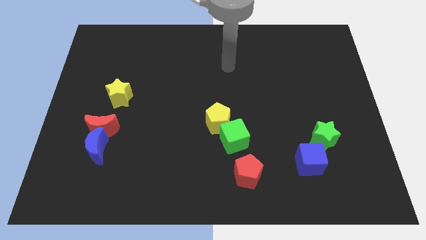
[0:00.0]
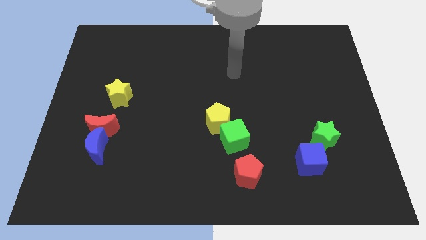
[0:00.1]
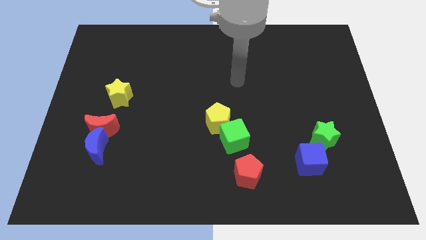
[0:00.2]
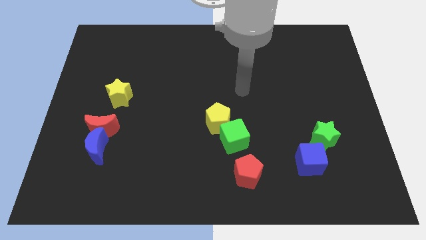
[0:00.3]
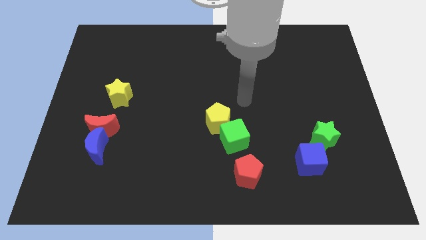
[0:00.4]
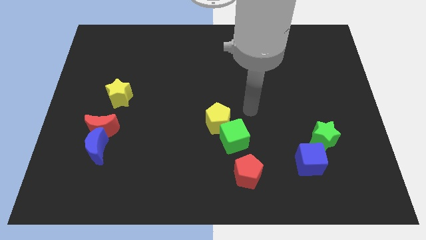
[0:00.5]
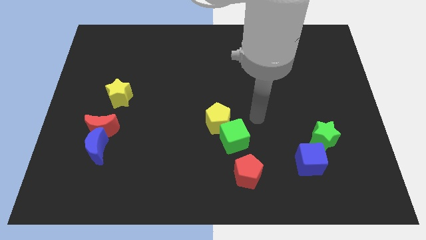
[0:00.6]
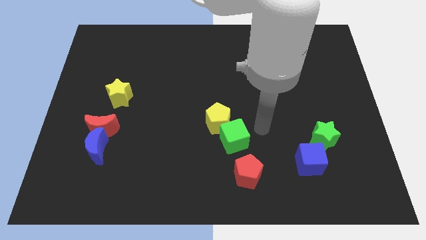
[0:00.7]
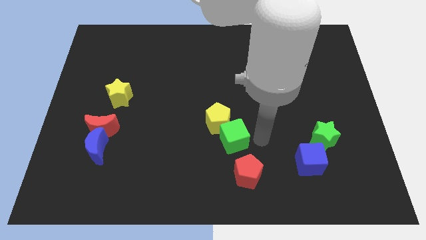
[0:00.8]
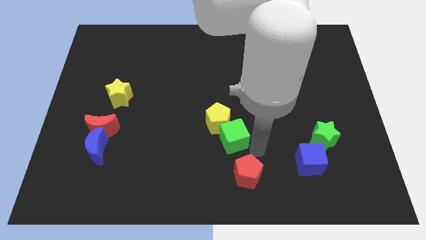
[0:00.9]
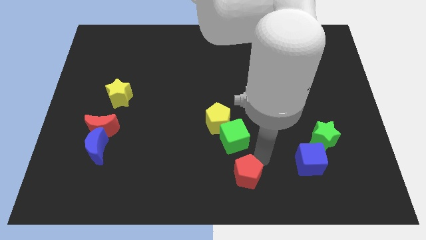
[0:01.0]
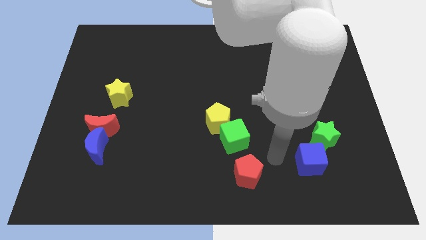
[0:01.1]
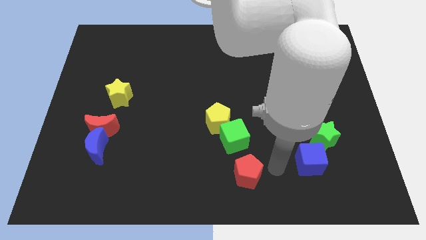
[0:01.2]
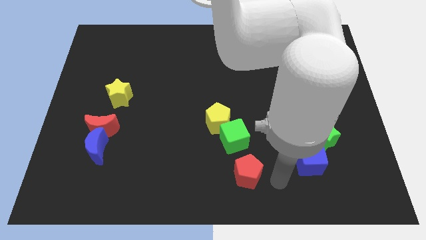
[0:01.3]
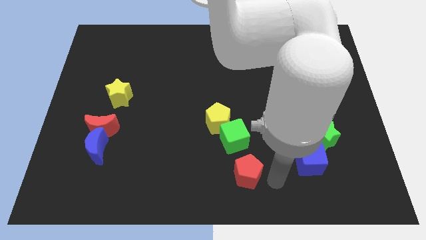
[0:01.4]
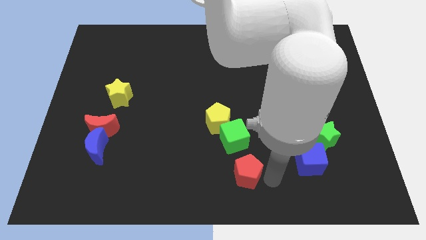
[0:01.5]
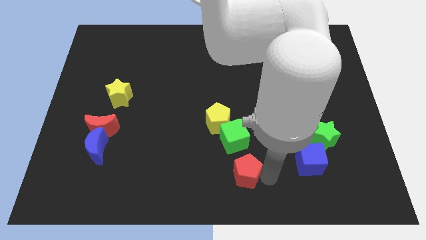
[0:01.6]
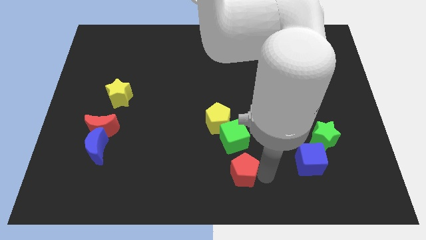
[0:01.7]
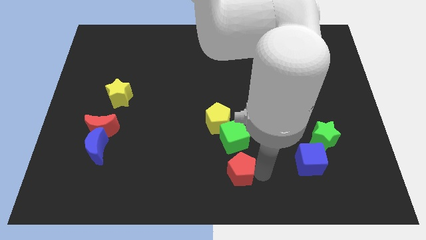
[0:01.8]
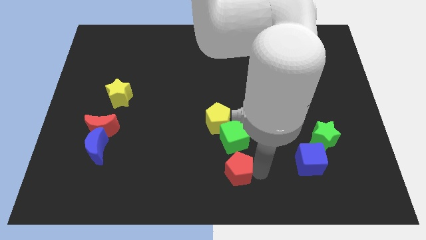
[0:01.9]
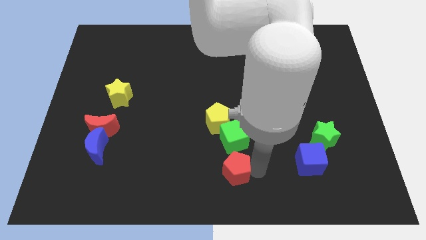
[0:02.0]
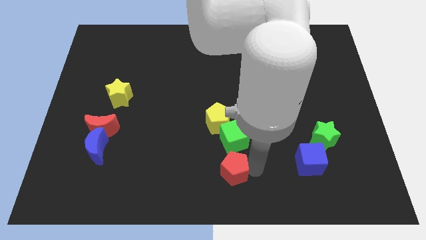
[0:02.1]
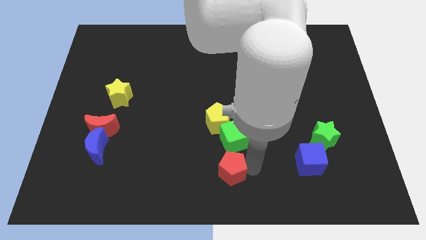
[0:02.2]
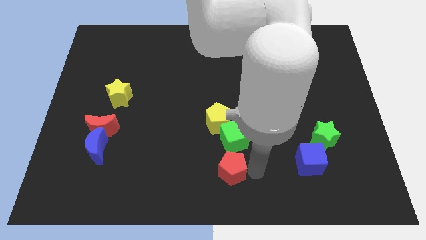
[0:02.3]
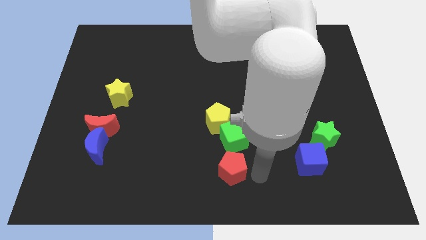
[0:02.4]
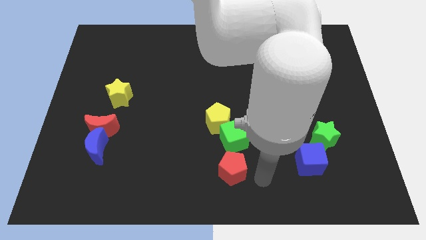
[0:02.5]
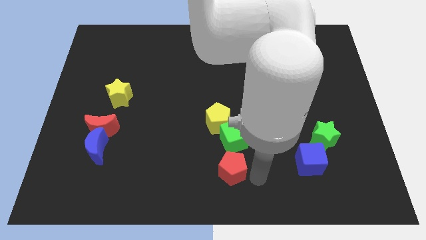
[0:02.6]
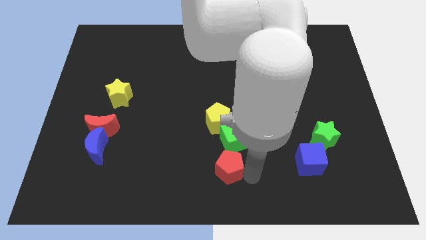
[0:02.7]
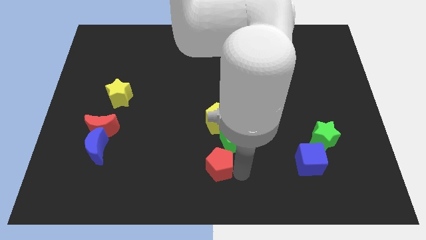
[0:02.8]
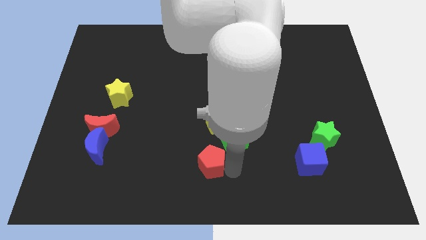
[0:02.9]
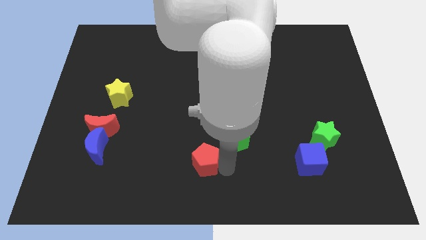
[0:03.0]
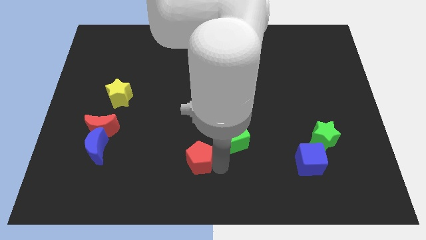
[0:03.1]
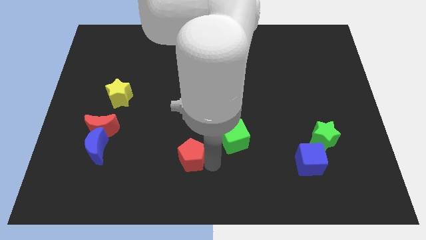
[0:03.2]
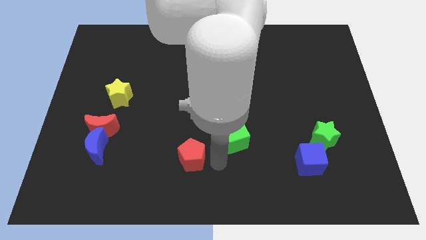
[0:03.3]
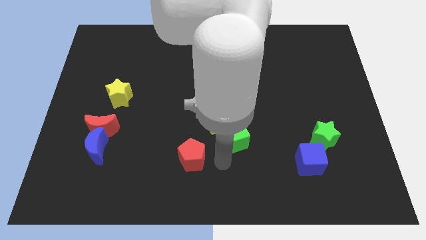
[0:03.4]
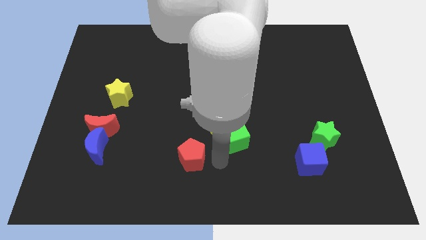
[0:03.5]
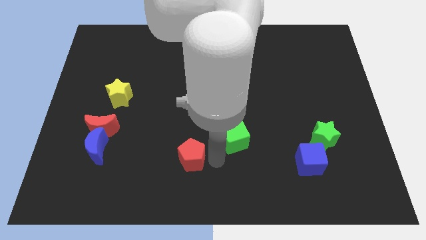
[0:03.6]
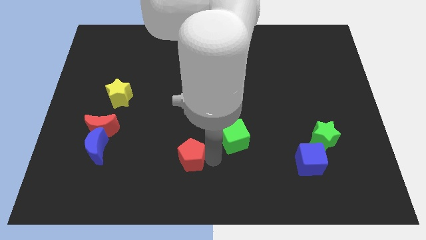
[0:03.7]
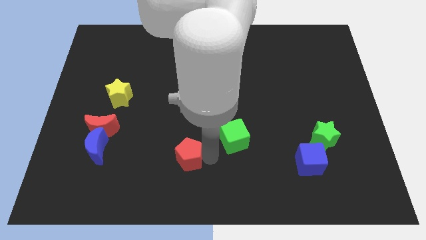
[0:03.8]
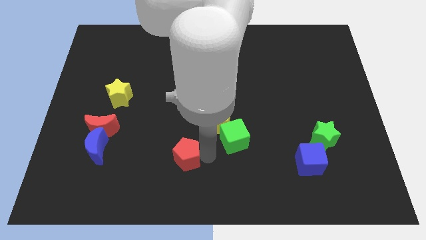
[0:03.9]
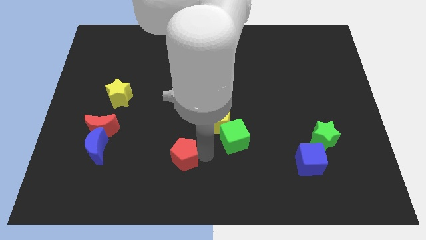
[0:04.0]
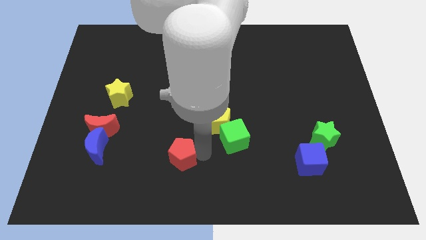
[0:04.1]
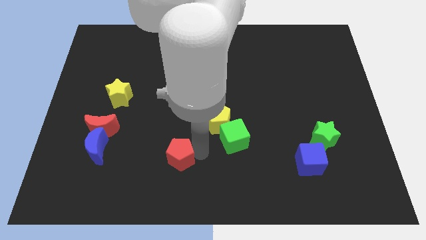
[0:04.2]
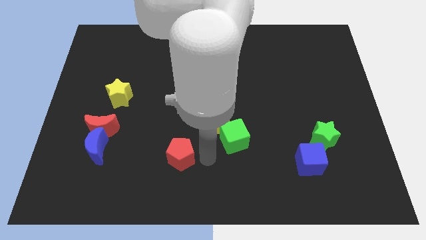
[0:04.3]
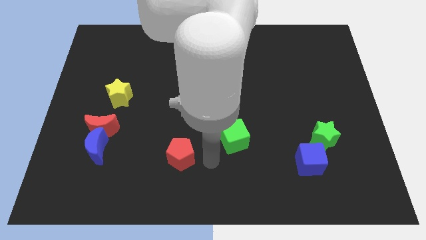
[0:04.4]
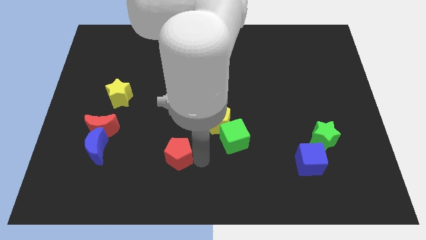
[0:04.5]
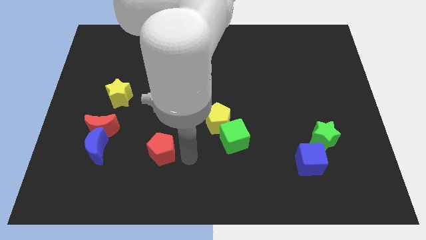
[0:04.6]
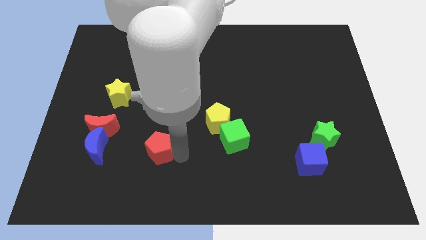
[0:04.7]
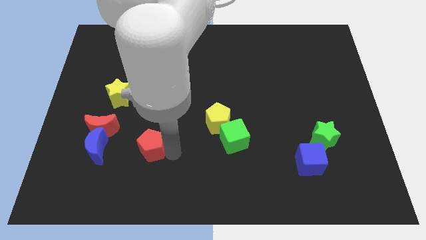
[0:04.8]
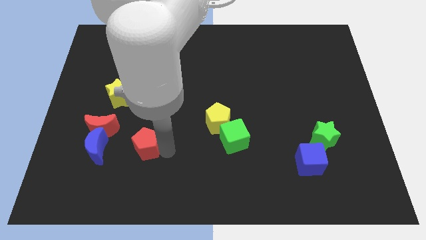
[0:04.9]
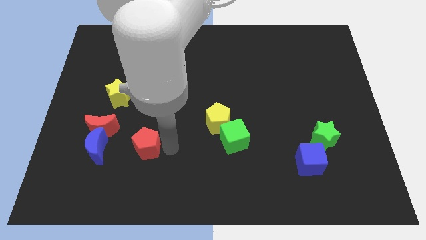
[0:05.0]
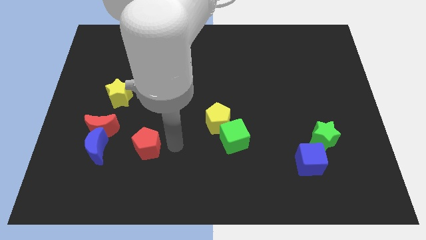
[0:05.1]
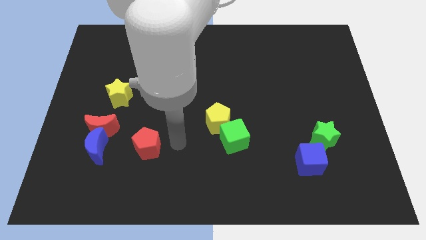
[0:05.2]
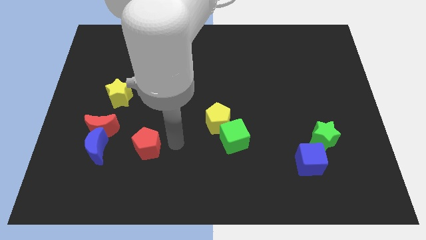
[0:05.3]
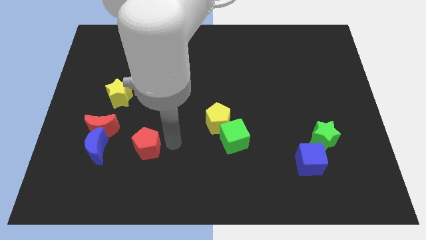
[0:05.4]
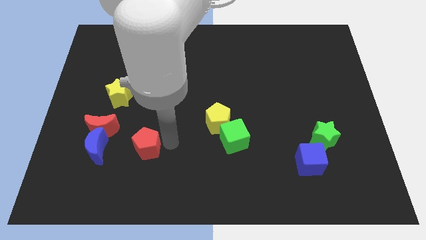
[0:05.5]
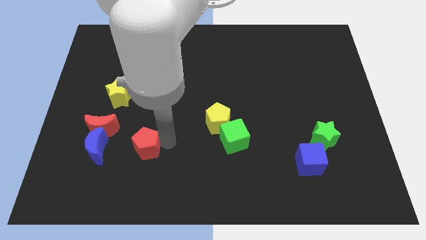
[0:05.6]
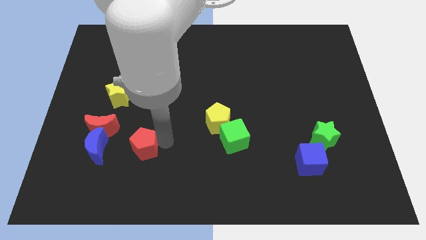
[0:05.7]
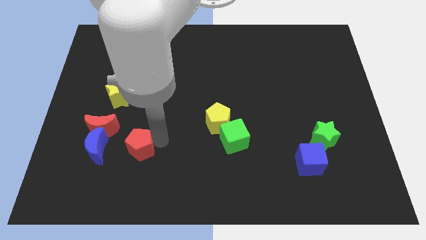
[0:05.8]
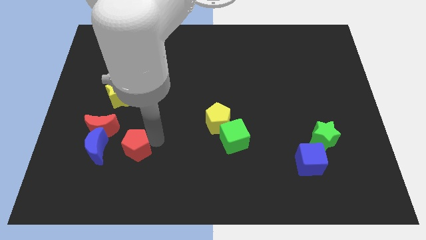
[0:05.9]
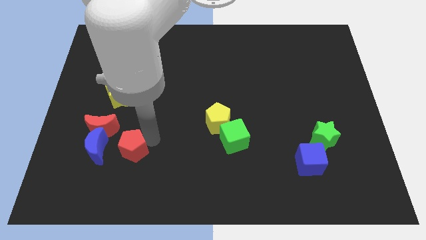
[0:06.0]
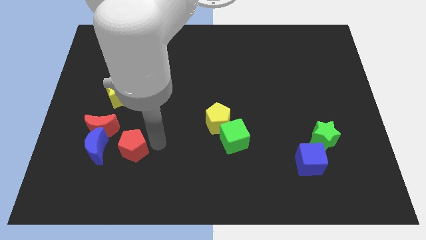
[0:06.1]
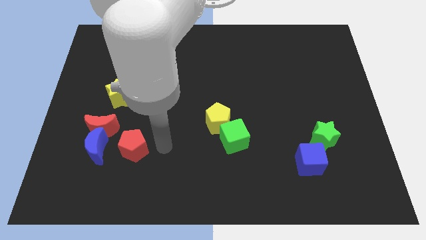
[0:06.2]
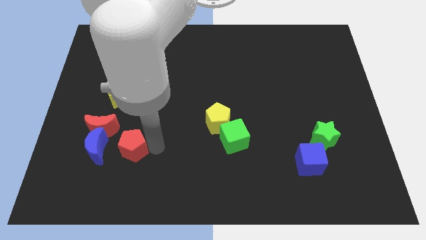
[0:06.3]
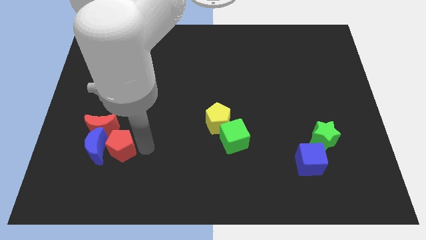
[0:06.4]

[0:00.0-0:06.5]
put the red pentagon towards the blue moon
